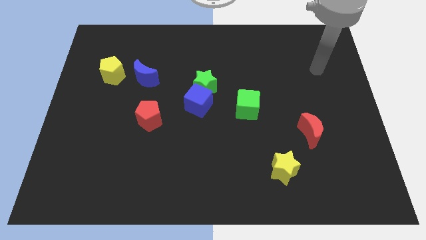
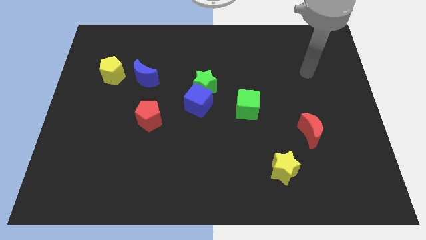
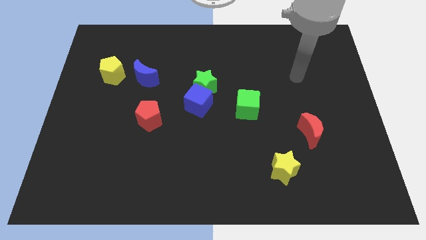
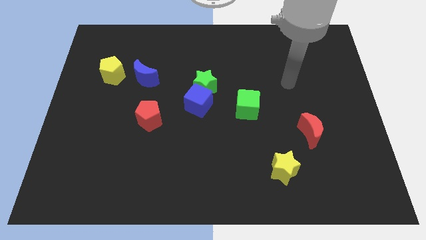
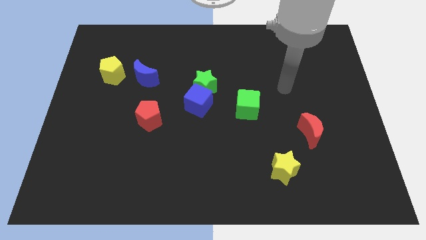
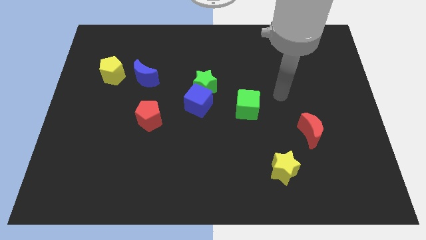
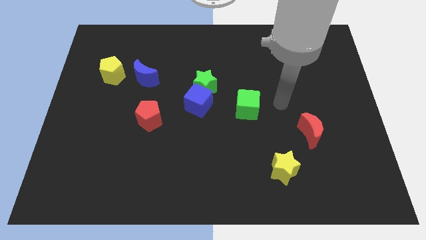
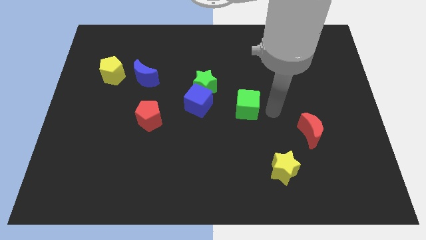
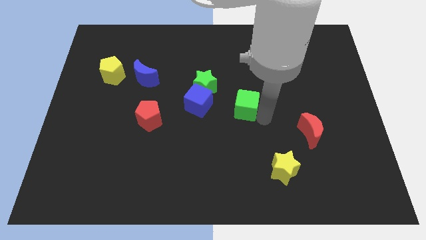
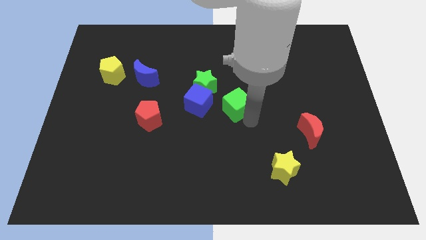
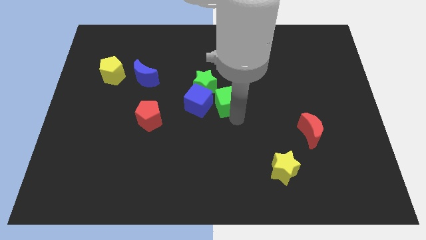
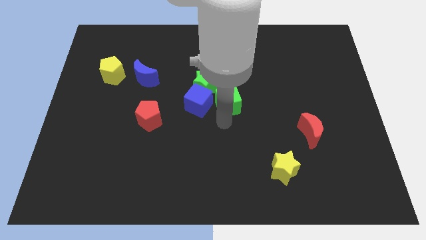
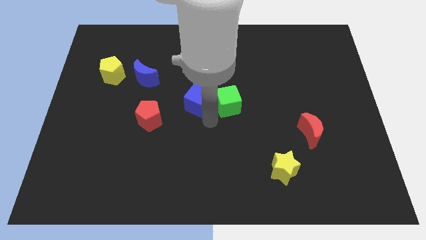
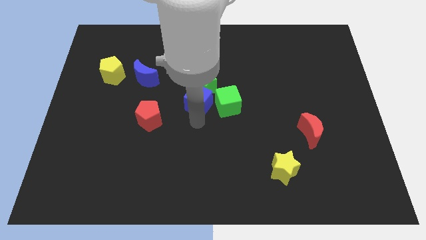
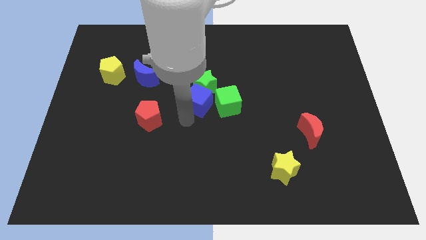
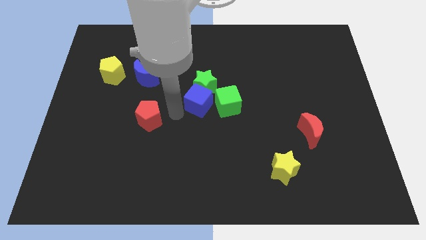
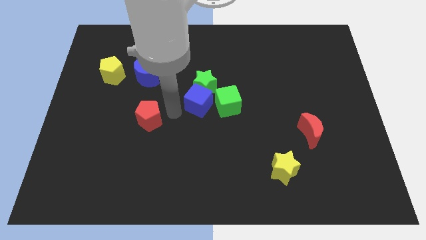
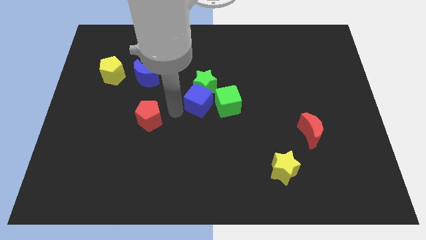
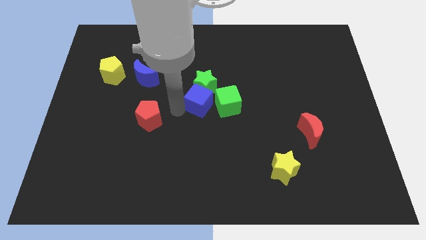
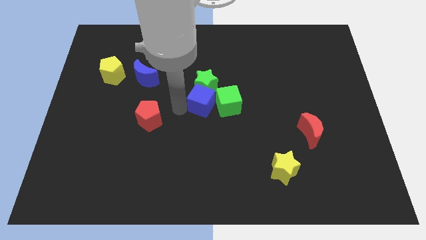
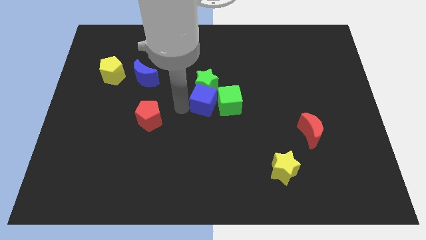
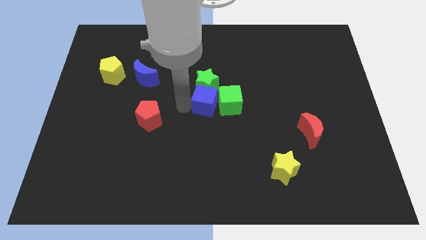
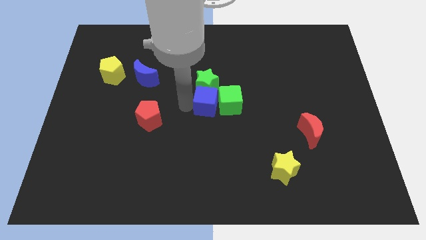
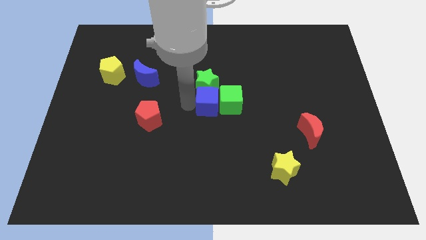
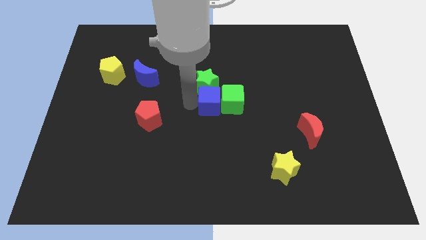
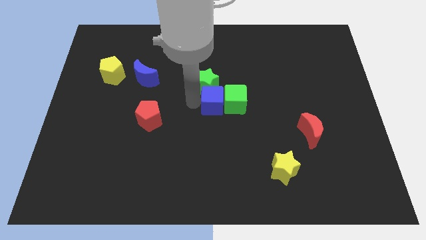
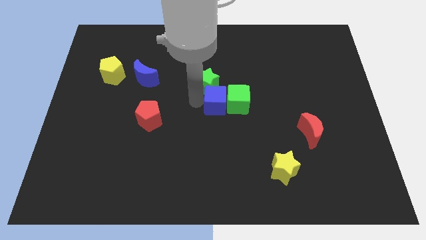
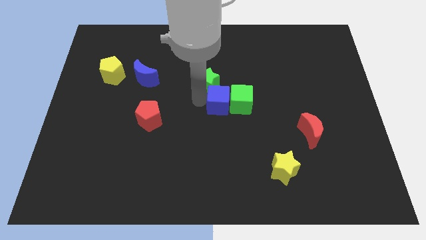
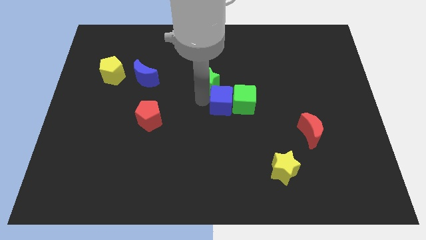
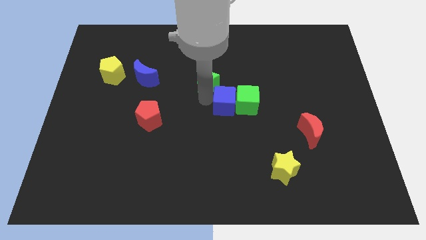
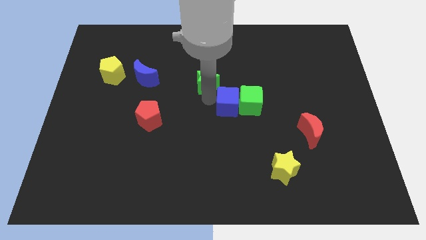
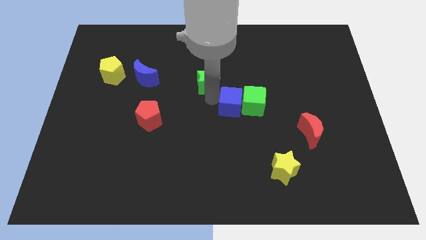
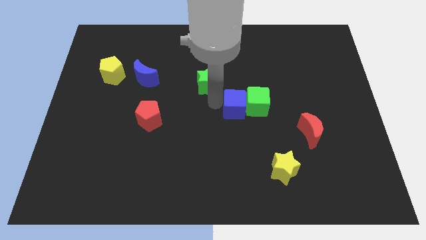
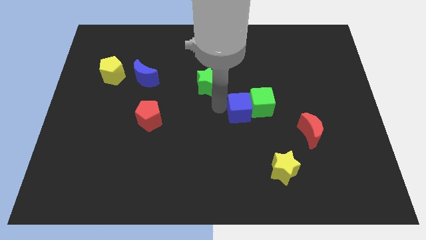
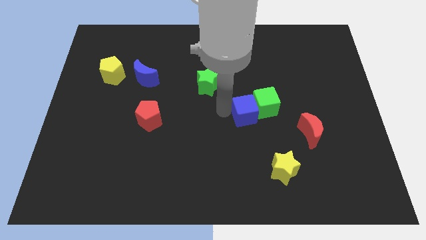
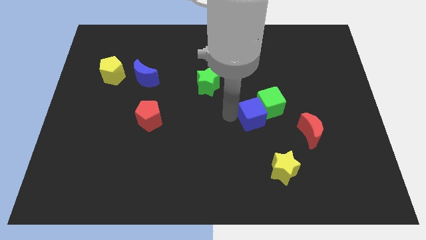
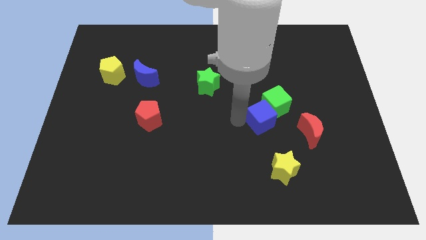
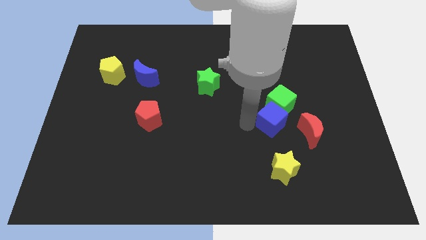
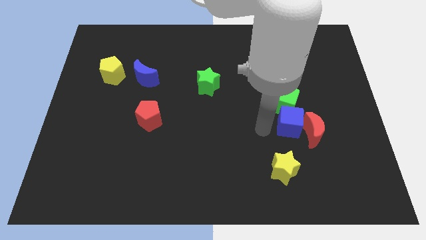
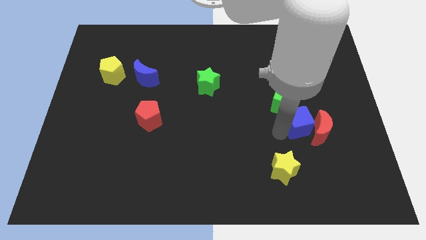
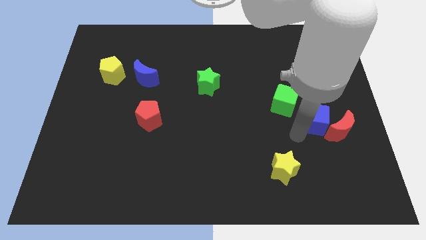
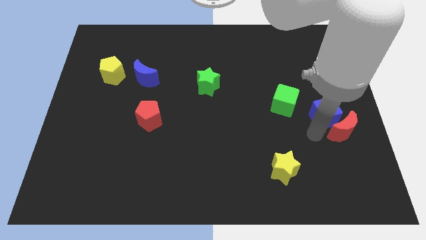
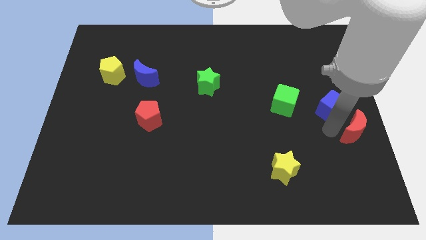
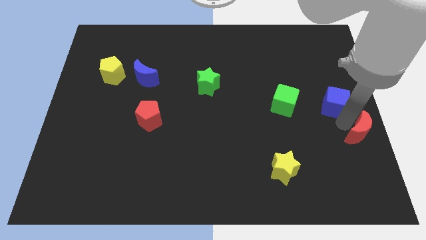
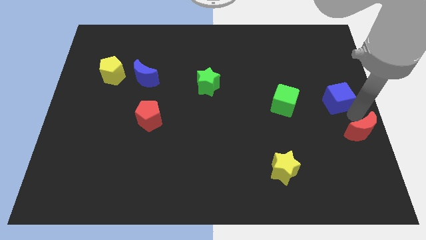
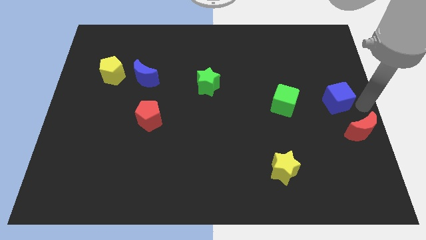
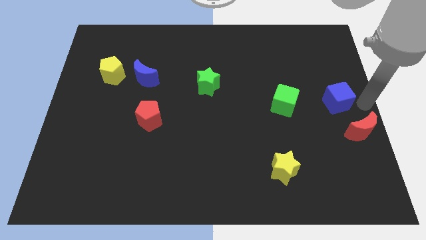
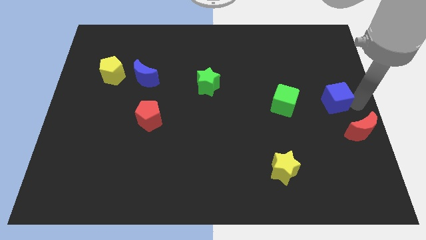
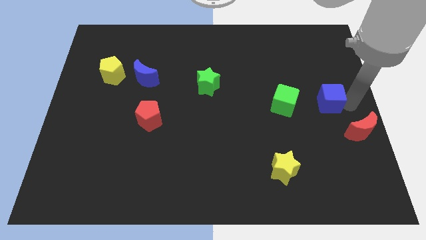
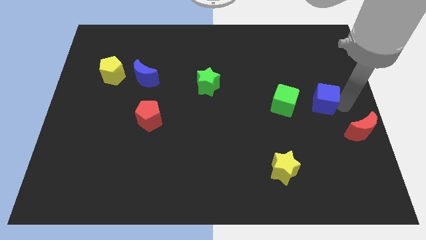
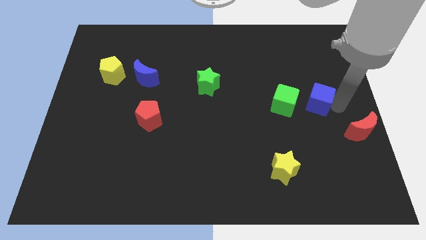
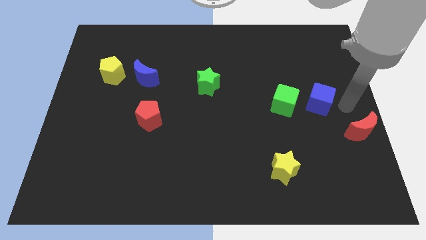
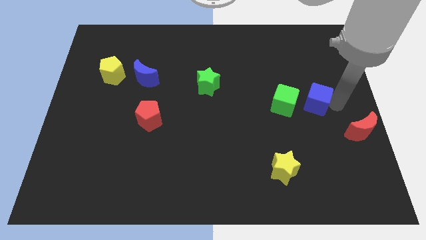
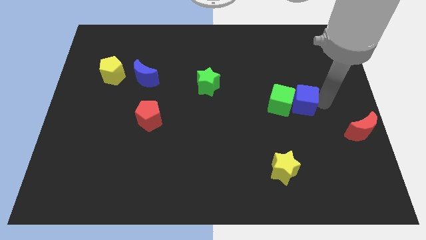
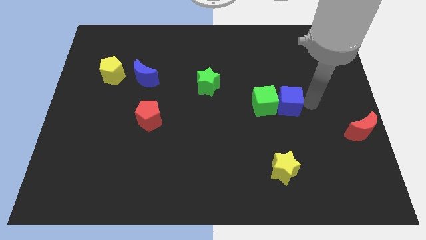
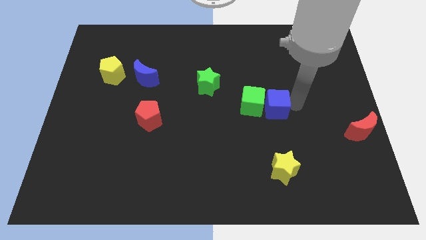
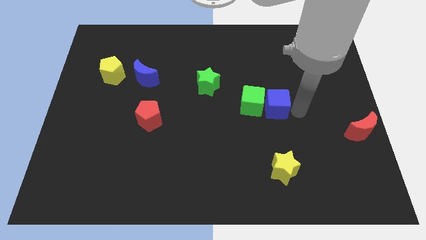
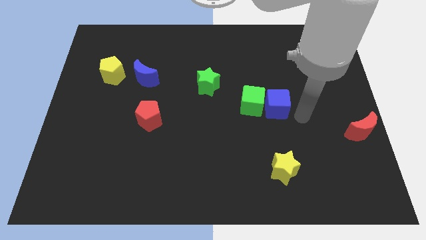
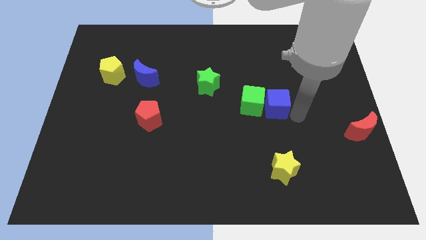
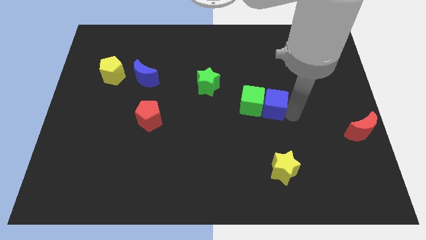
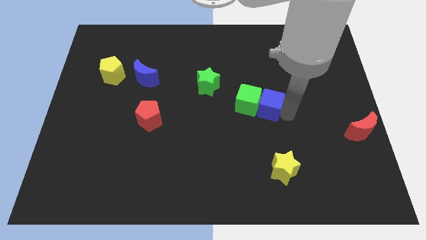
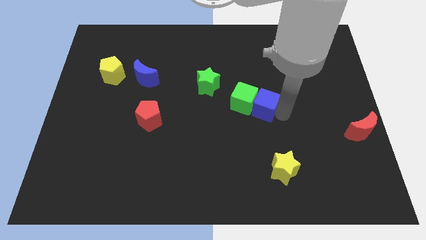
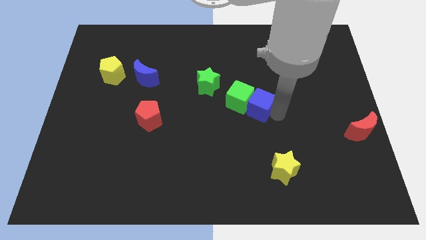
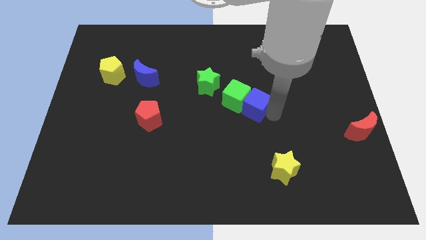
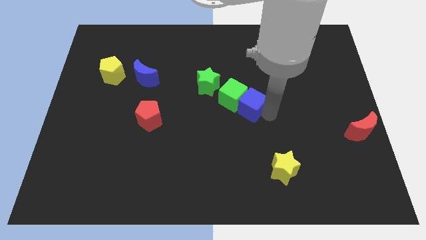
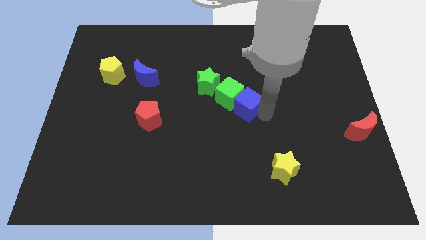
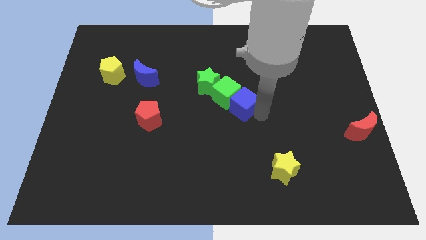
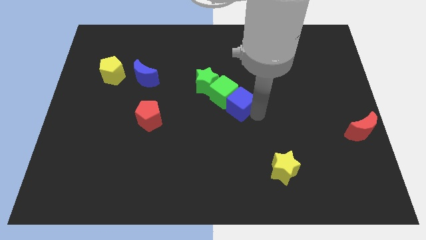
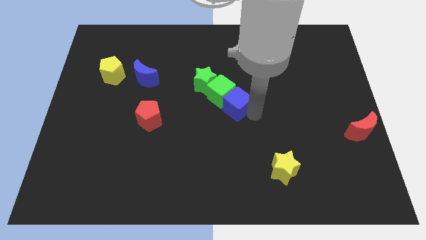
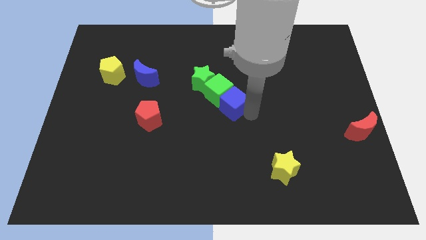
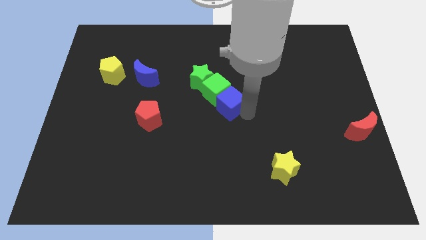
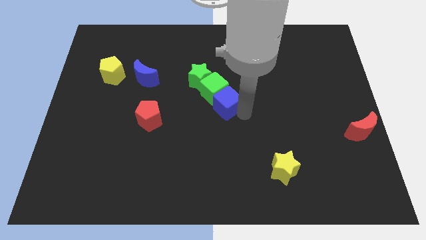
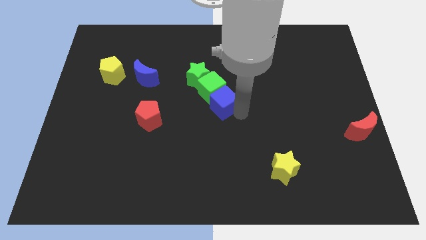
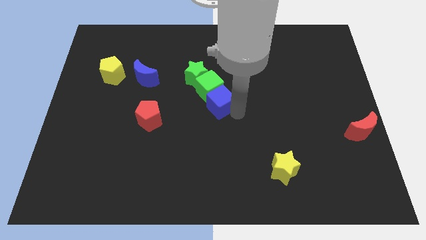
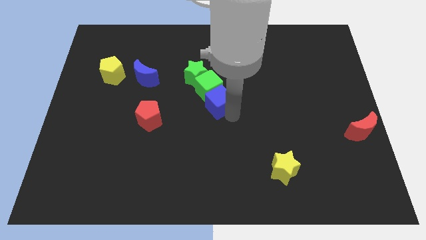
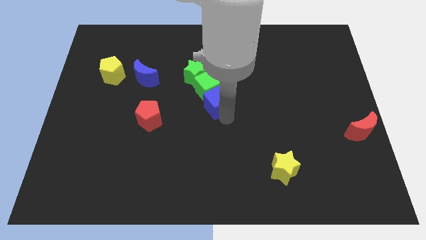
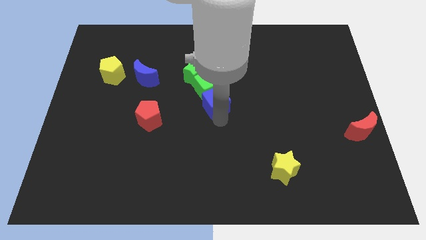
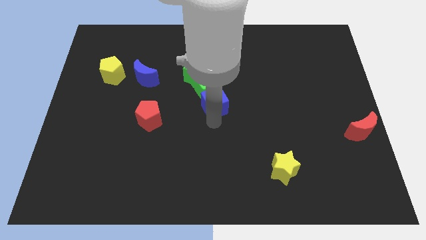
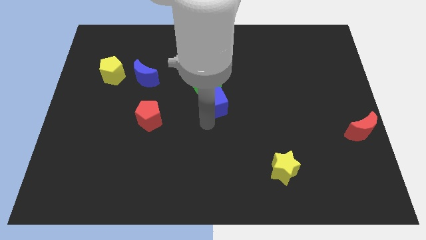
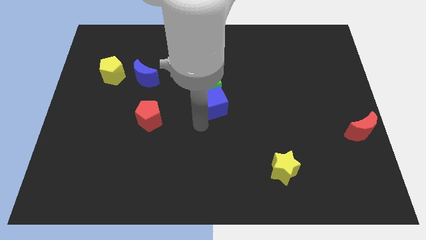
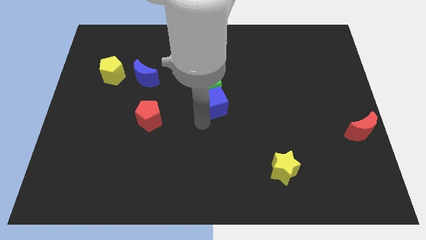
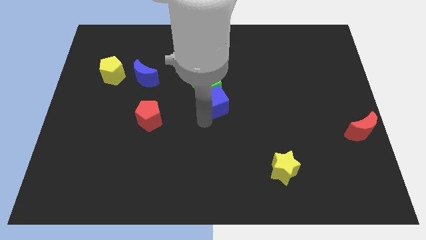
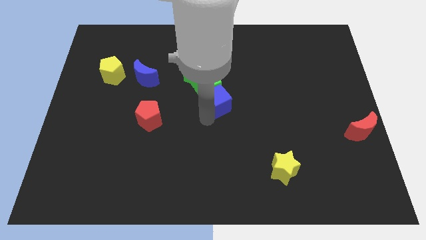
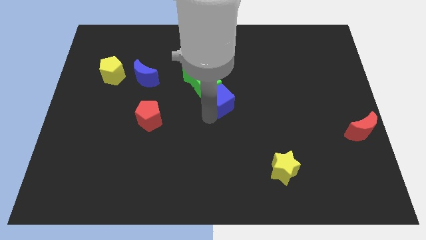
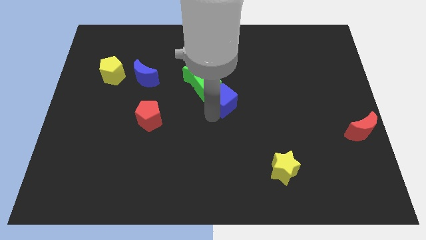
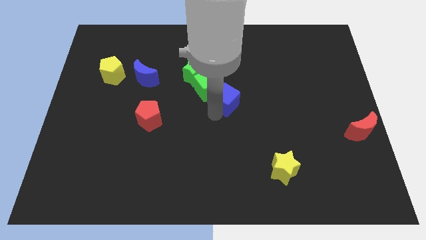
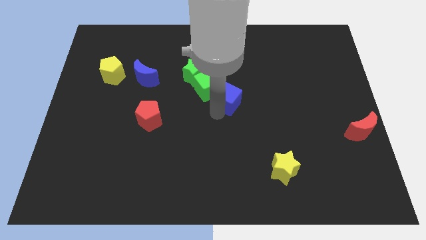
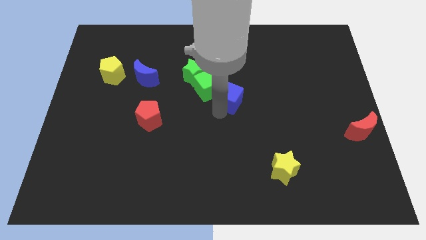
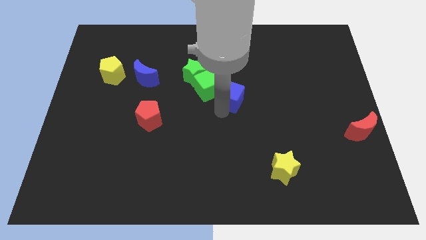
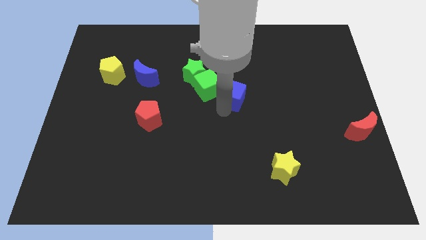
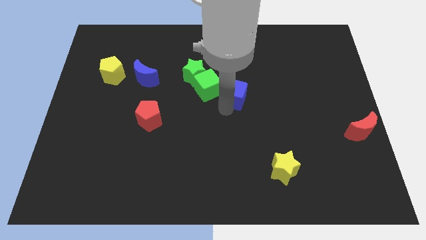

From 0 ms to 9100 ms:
push the blue cube somewhat upwards and right
